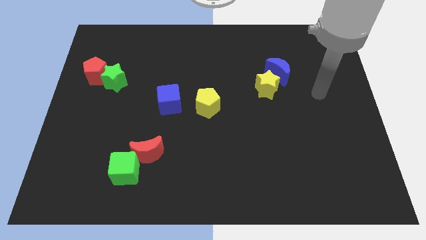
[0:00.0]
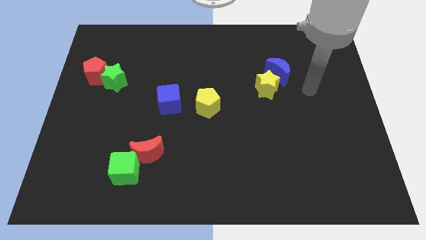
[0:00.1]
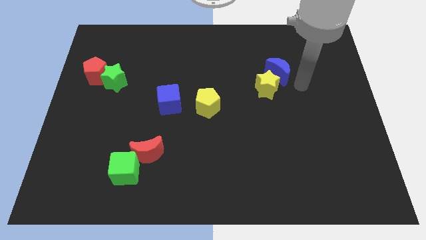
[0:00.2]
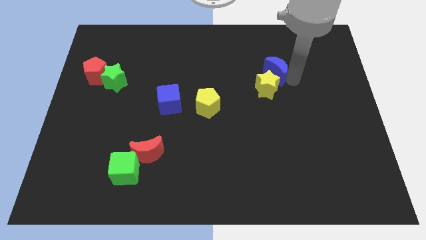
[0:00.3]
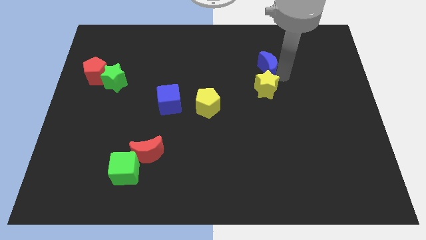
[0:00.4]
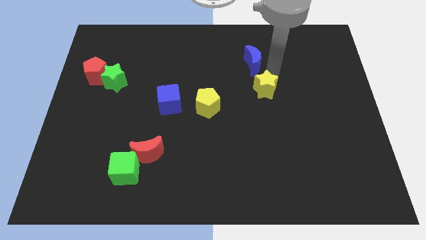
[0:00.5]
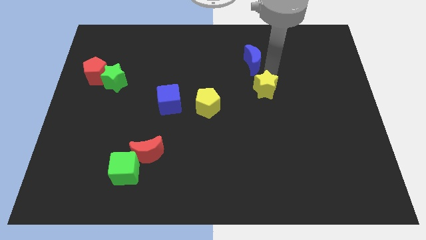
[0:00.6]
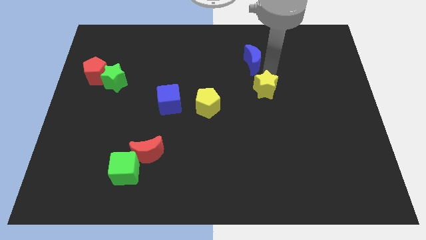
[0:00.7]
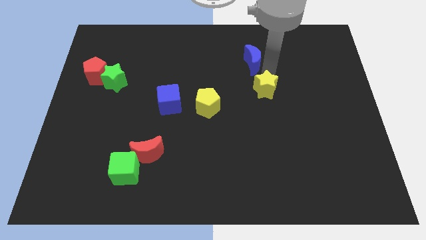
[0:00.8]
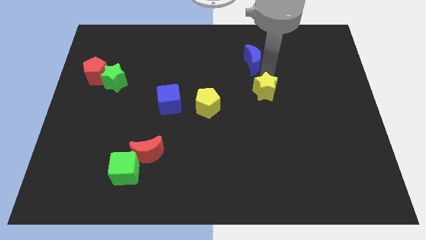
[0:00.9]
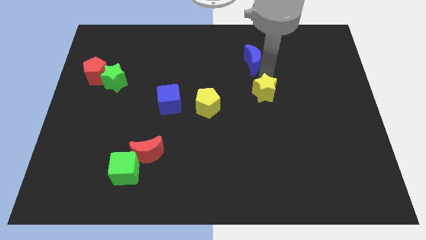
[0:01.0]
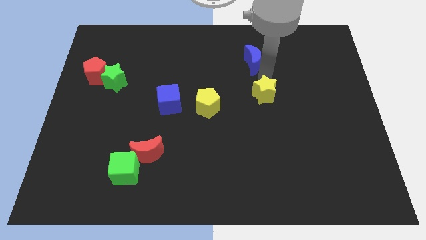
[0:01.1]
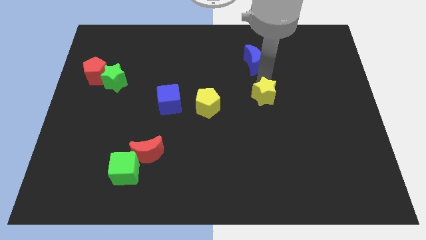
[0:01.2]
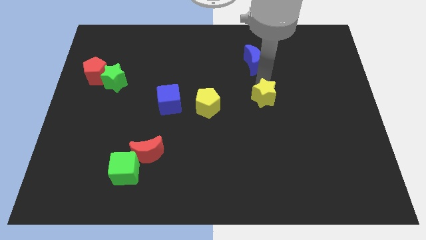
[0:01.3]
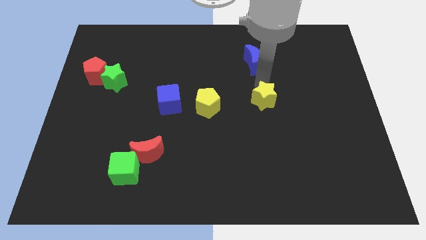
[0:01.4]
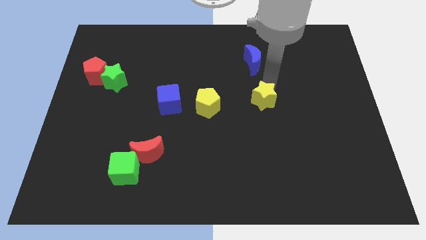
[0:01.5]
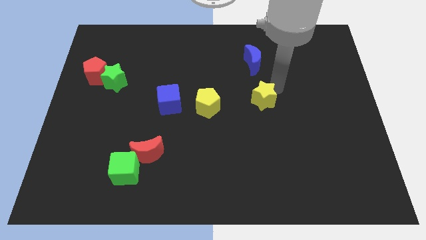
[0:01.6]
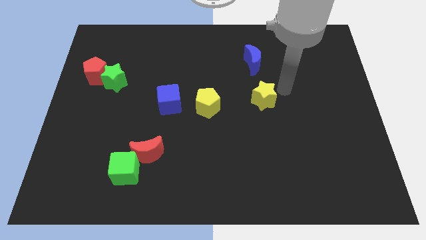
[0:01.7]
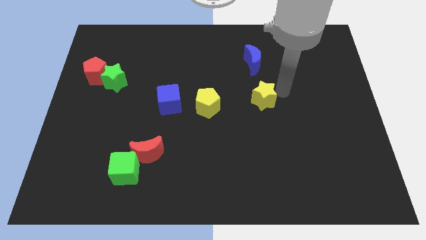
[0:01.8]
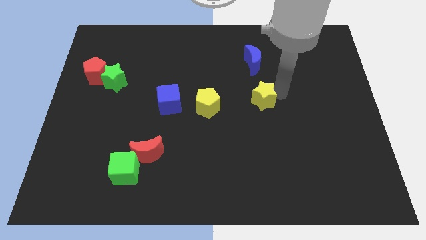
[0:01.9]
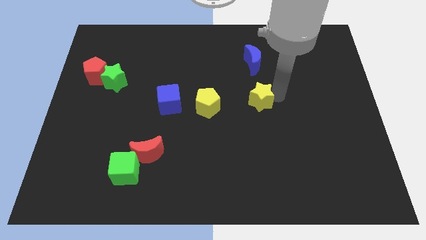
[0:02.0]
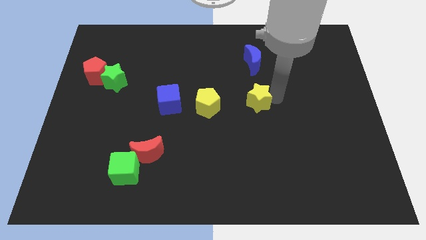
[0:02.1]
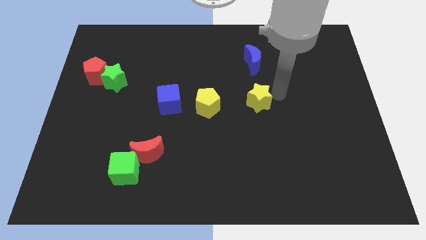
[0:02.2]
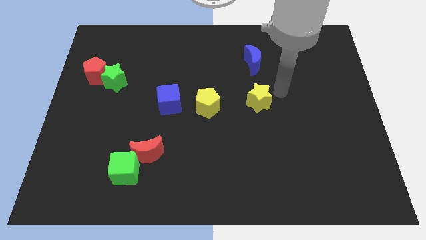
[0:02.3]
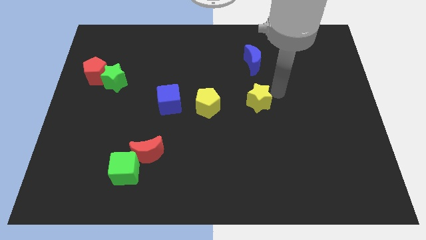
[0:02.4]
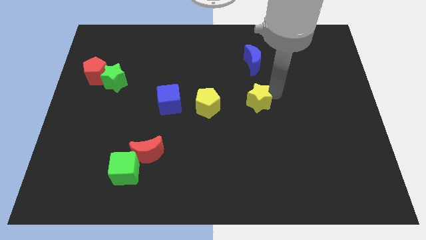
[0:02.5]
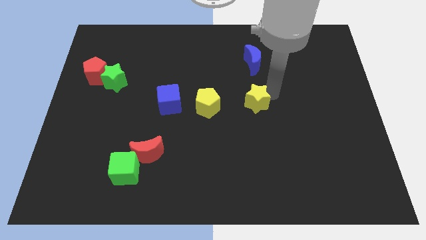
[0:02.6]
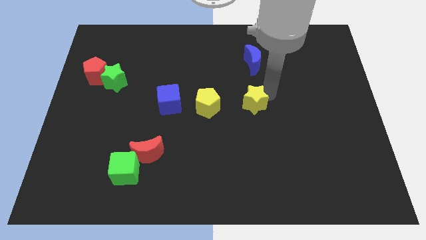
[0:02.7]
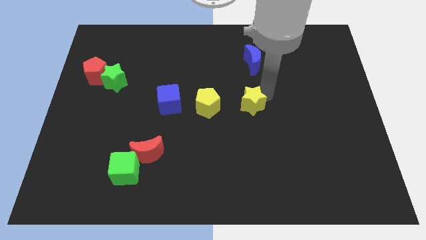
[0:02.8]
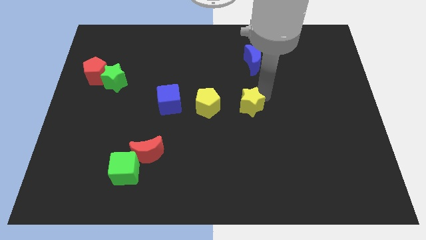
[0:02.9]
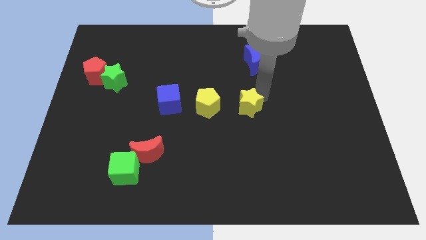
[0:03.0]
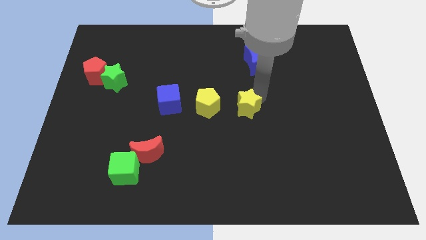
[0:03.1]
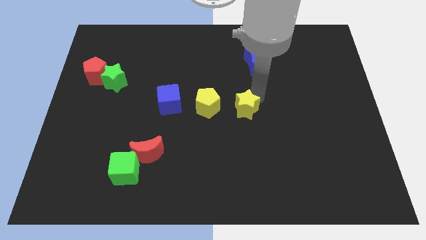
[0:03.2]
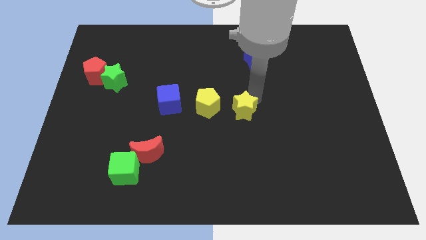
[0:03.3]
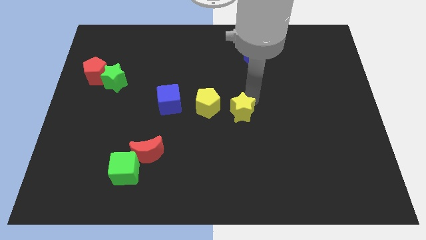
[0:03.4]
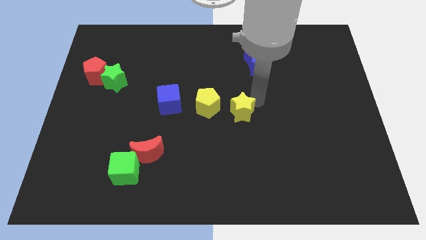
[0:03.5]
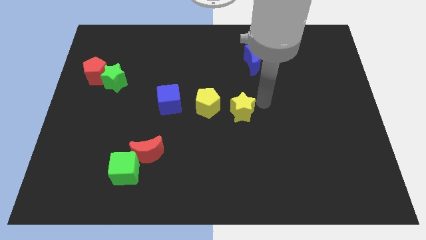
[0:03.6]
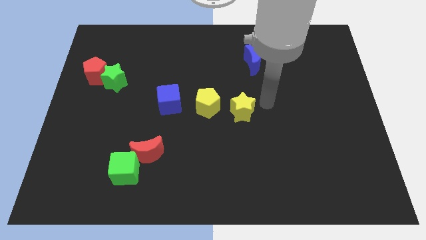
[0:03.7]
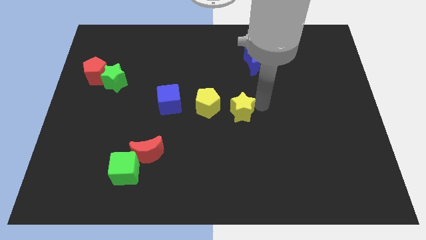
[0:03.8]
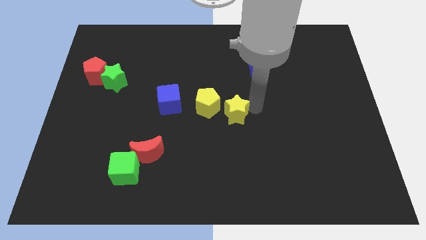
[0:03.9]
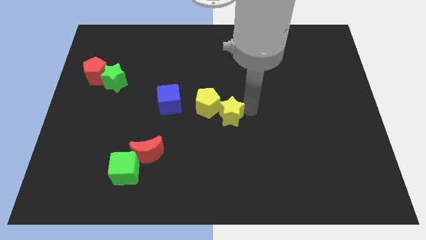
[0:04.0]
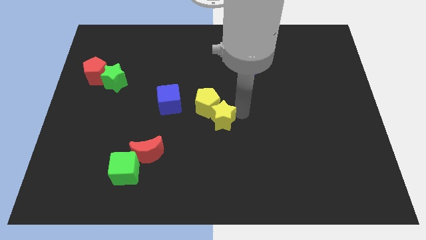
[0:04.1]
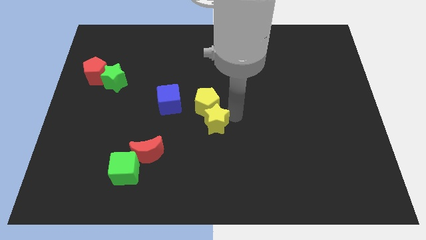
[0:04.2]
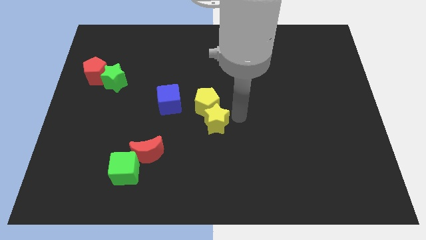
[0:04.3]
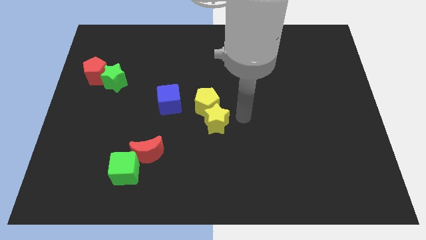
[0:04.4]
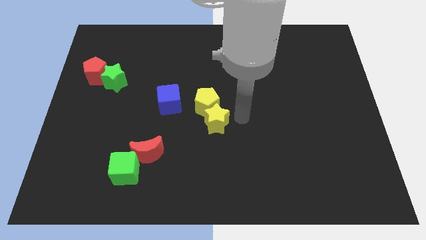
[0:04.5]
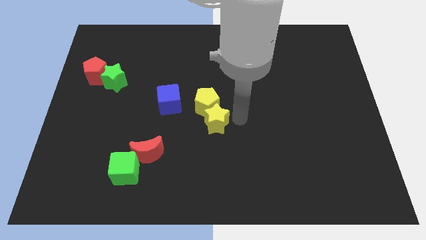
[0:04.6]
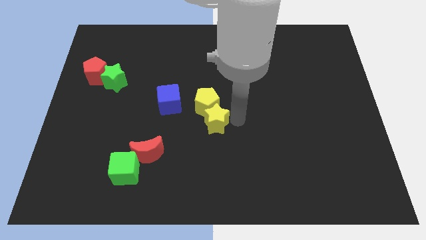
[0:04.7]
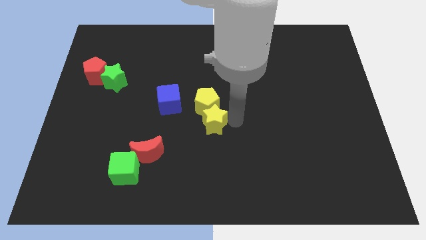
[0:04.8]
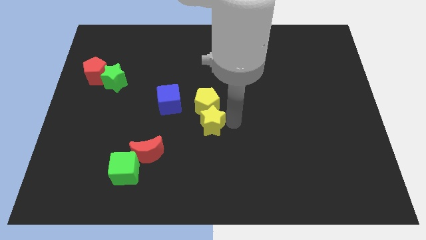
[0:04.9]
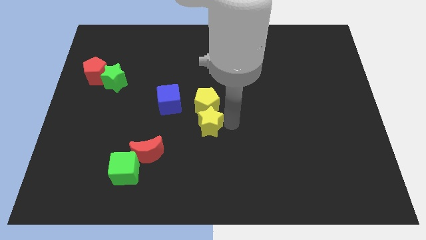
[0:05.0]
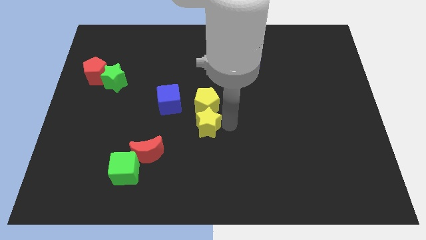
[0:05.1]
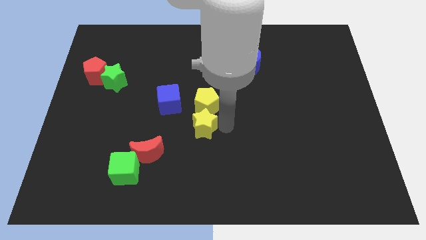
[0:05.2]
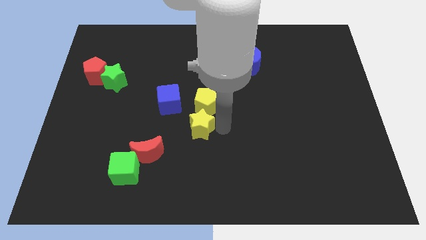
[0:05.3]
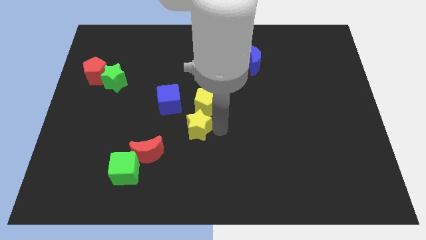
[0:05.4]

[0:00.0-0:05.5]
put the yellow star diagonally up and to the right of the red moon

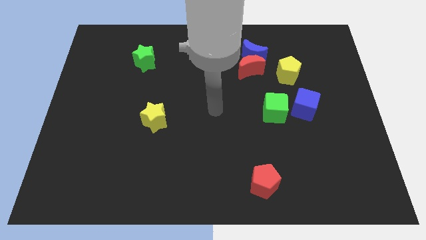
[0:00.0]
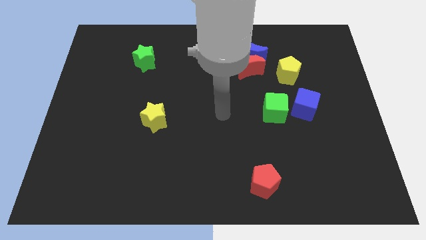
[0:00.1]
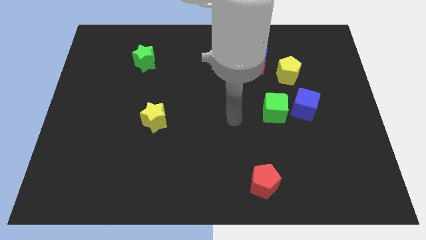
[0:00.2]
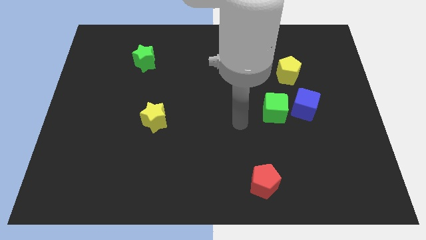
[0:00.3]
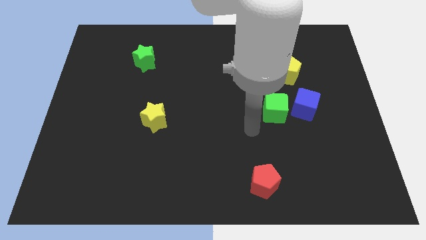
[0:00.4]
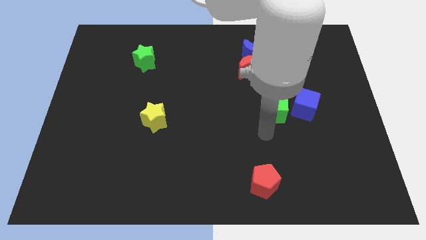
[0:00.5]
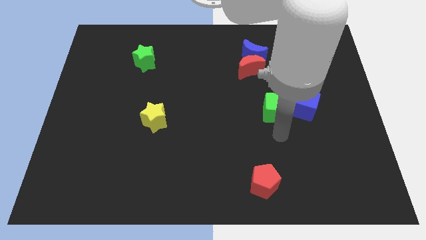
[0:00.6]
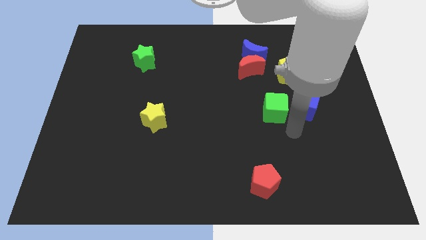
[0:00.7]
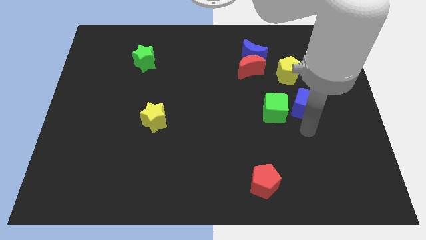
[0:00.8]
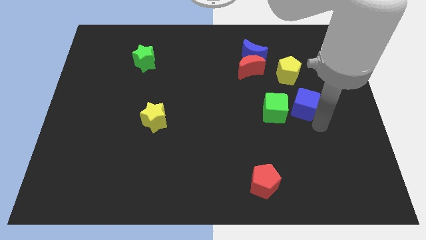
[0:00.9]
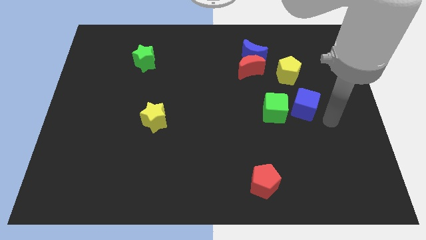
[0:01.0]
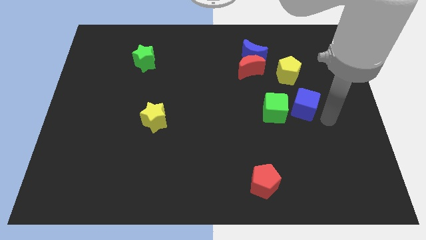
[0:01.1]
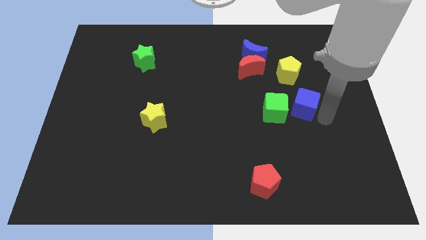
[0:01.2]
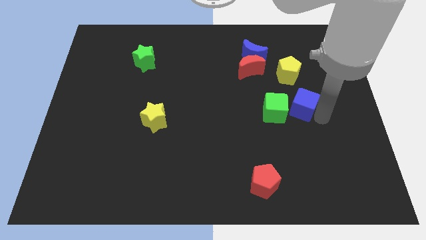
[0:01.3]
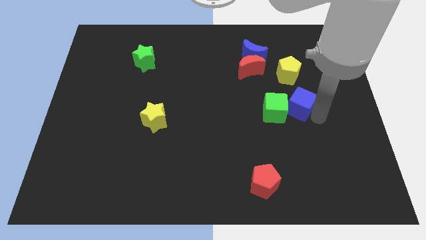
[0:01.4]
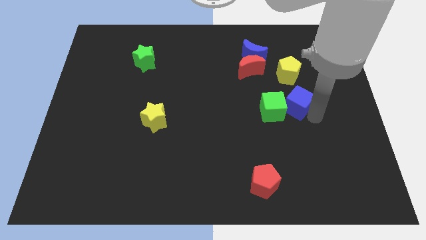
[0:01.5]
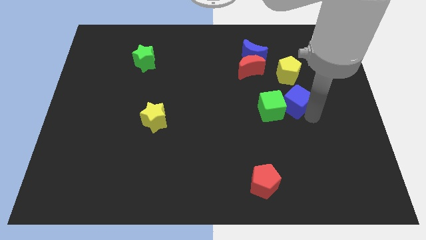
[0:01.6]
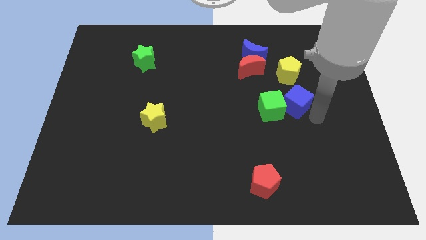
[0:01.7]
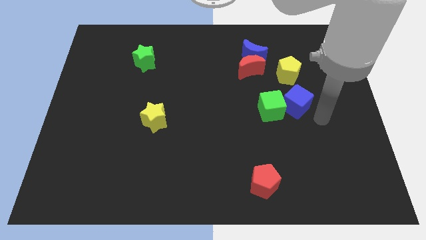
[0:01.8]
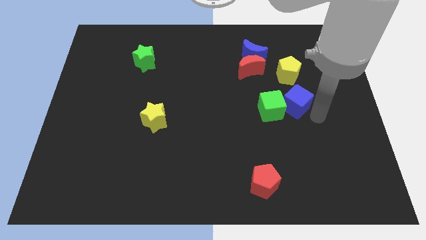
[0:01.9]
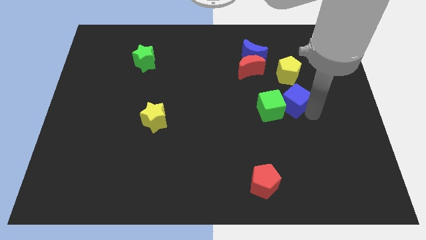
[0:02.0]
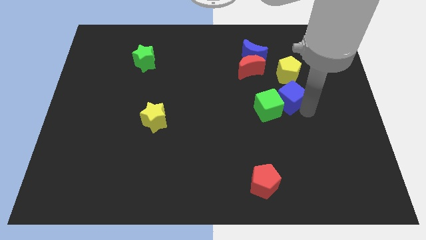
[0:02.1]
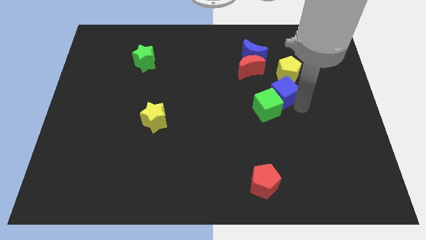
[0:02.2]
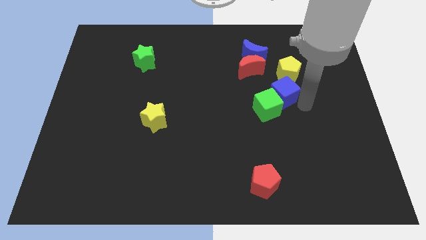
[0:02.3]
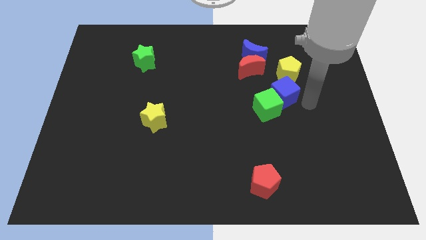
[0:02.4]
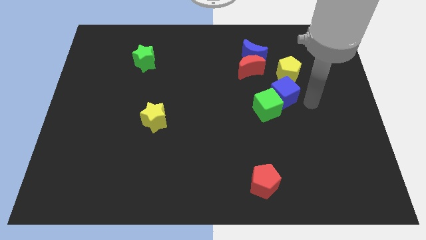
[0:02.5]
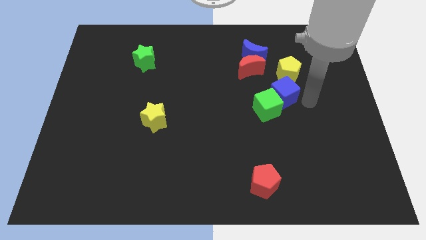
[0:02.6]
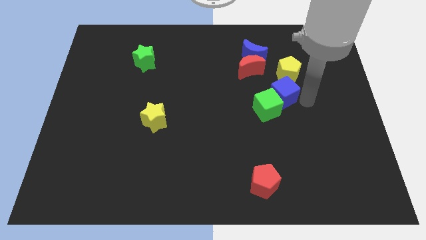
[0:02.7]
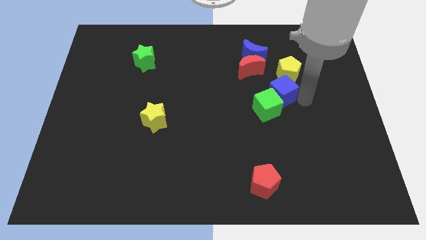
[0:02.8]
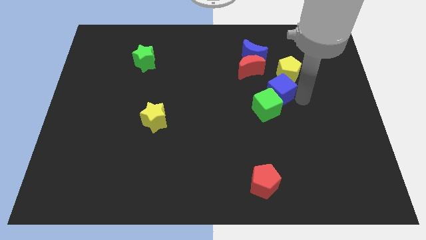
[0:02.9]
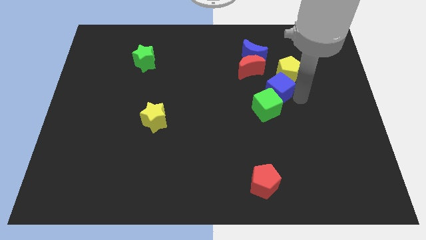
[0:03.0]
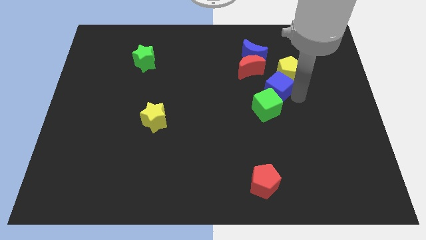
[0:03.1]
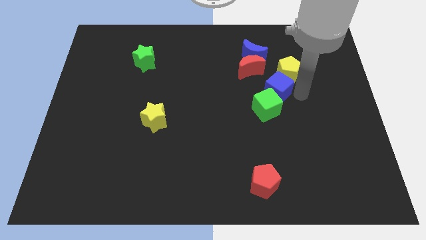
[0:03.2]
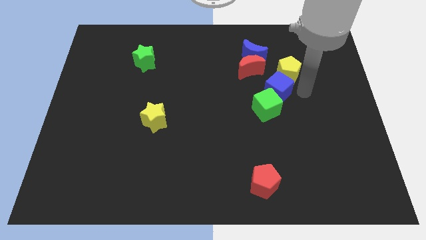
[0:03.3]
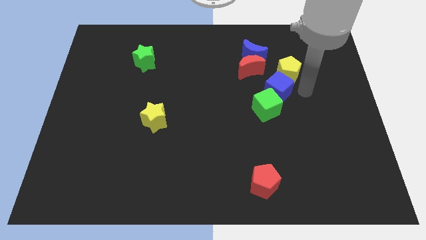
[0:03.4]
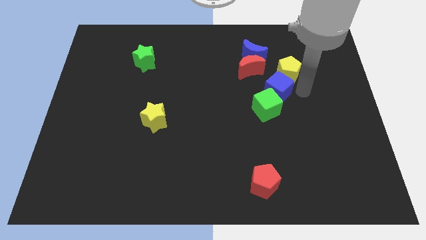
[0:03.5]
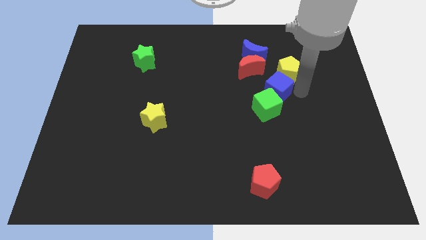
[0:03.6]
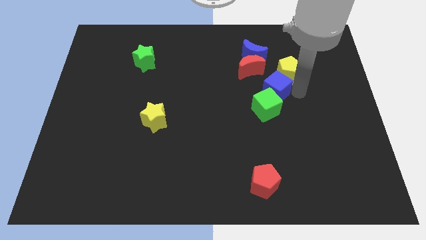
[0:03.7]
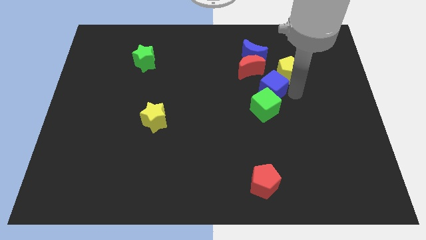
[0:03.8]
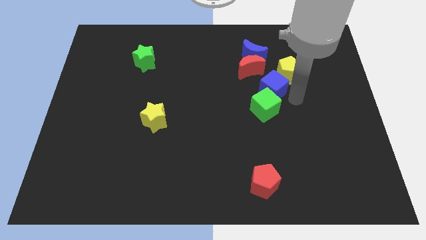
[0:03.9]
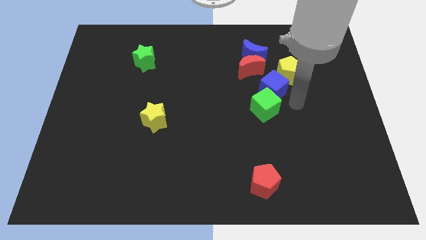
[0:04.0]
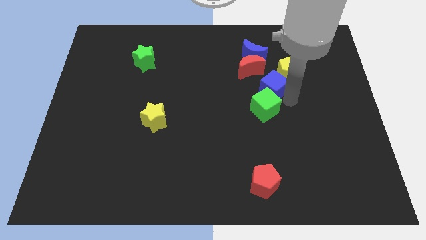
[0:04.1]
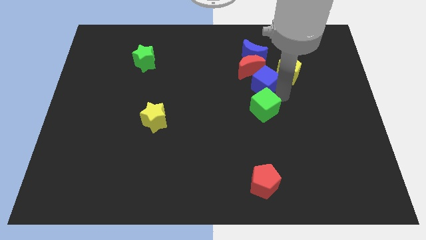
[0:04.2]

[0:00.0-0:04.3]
push the blue cube left of the yellow pentagon
